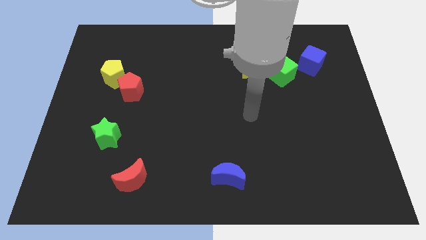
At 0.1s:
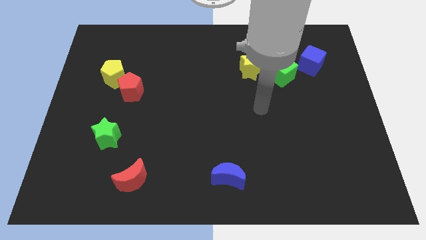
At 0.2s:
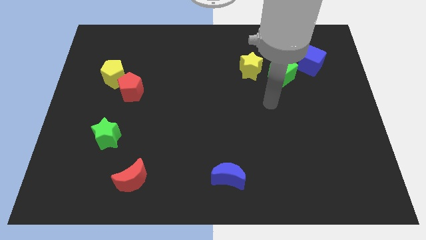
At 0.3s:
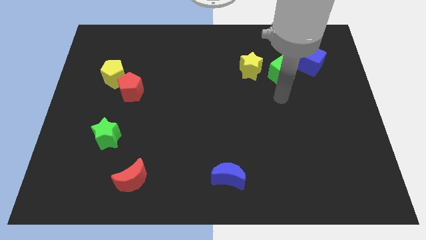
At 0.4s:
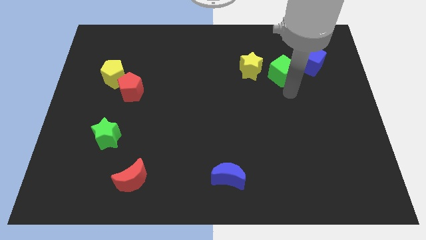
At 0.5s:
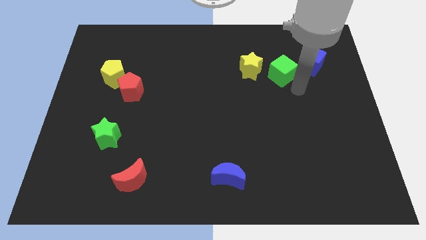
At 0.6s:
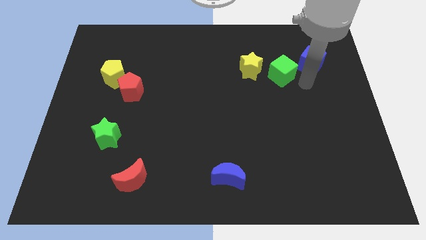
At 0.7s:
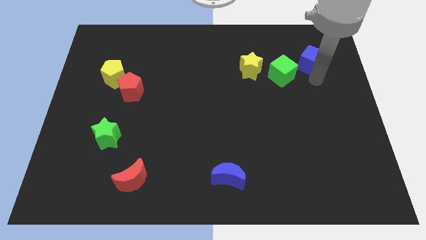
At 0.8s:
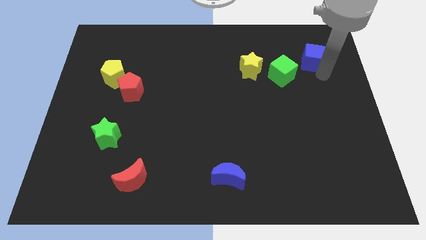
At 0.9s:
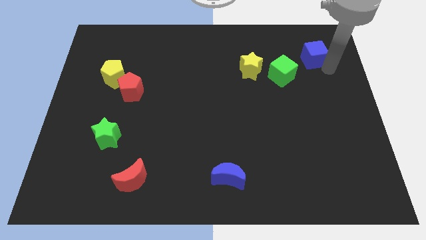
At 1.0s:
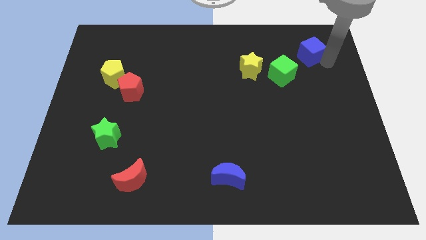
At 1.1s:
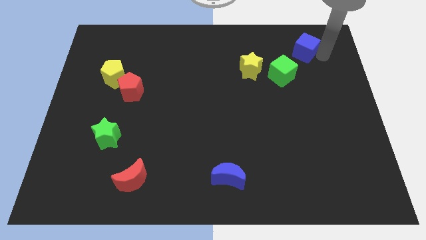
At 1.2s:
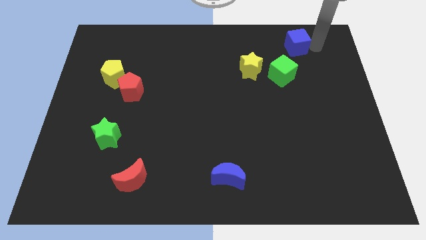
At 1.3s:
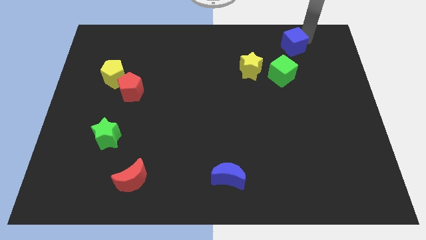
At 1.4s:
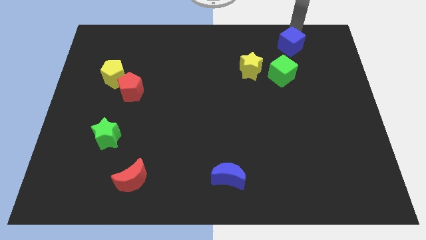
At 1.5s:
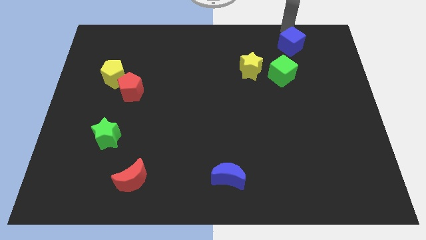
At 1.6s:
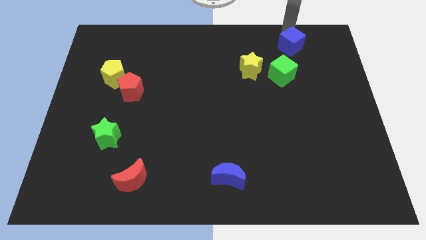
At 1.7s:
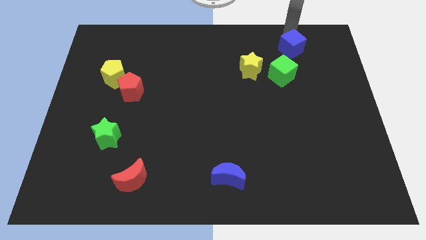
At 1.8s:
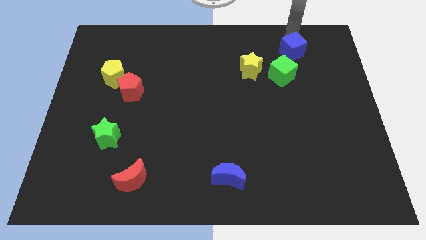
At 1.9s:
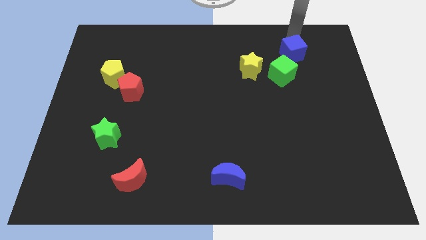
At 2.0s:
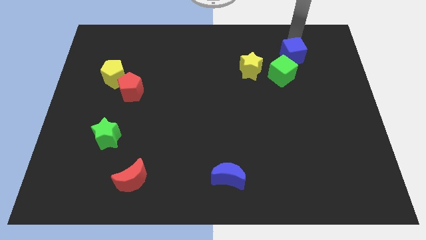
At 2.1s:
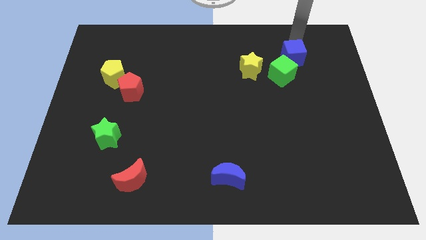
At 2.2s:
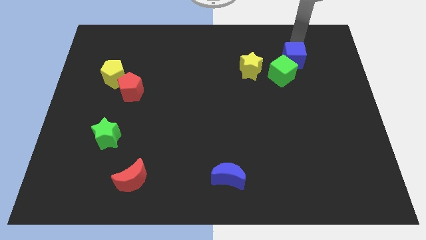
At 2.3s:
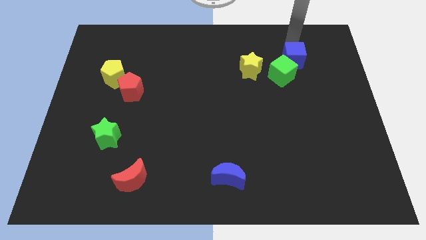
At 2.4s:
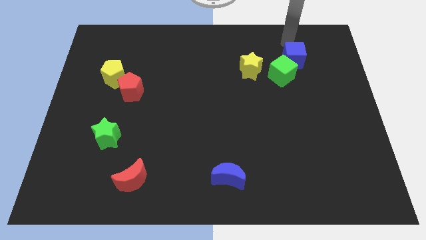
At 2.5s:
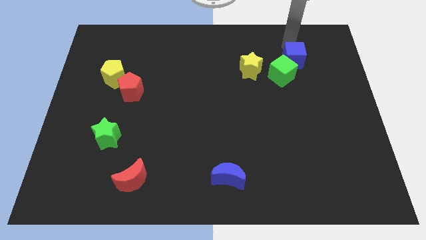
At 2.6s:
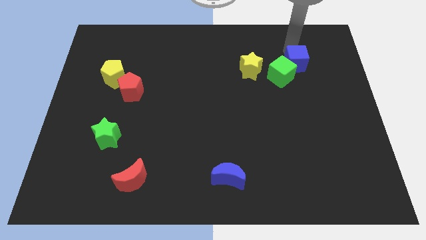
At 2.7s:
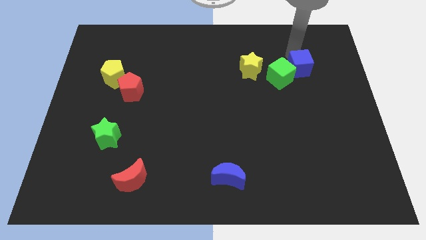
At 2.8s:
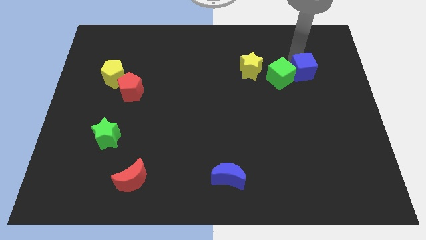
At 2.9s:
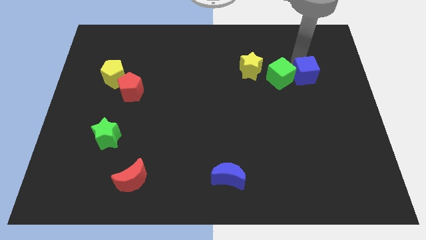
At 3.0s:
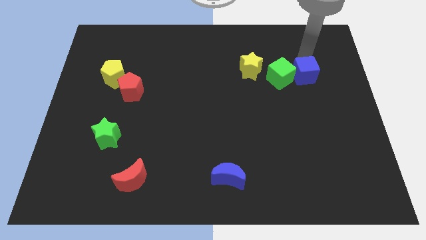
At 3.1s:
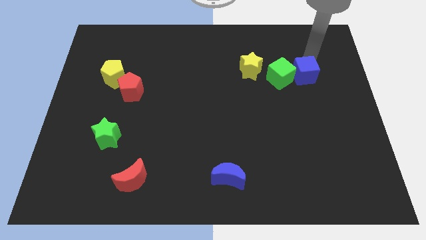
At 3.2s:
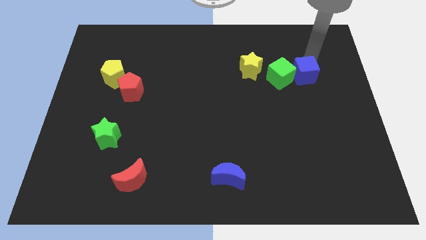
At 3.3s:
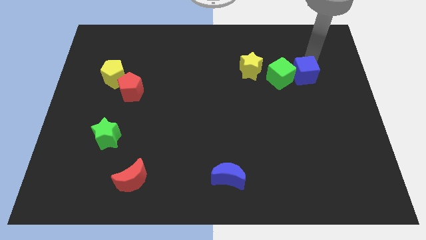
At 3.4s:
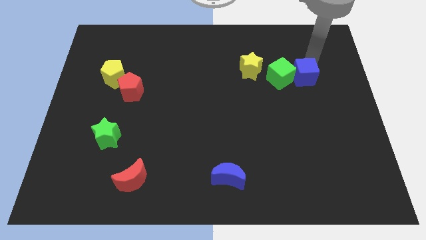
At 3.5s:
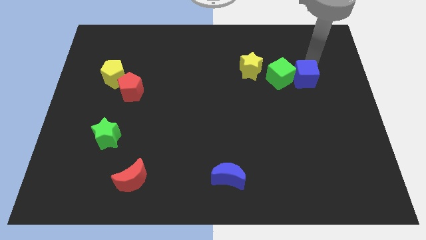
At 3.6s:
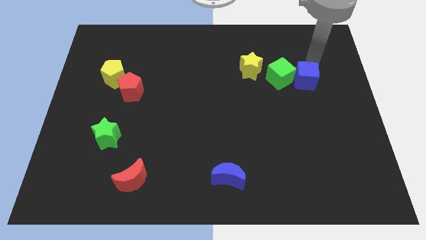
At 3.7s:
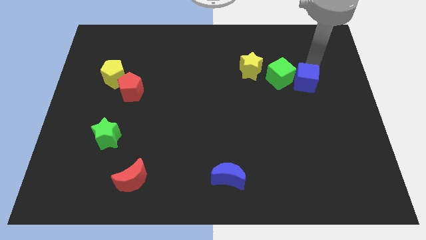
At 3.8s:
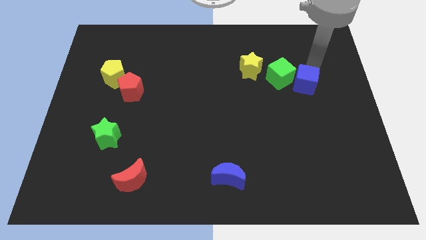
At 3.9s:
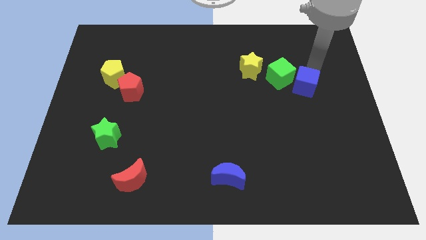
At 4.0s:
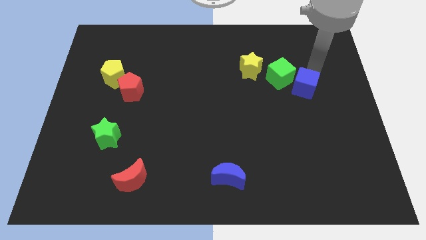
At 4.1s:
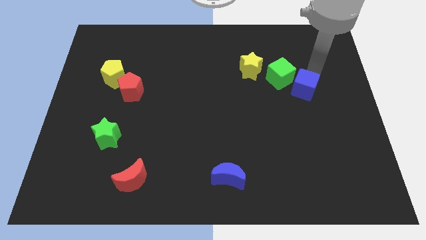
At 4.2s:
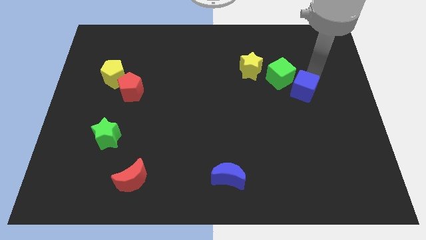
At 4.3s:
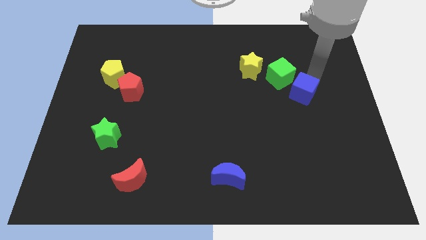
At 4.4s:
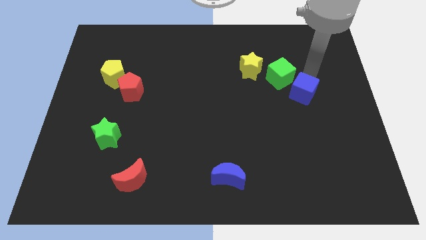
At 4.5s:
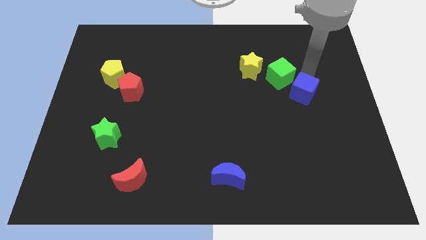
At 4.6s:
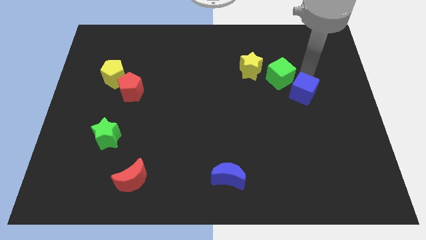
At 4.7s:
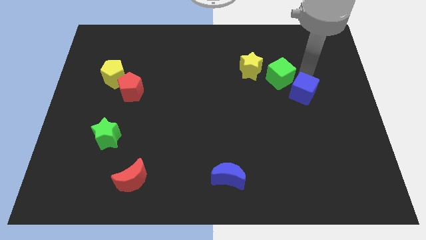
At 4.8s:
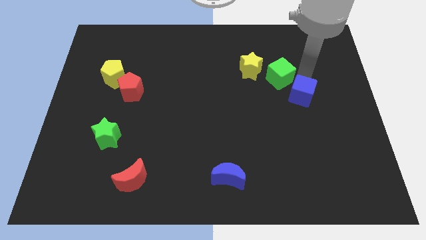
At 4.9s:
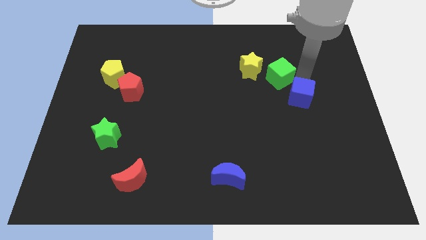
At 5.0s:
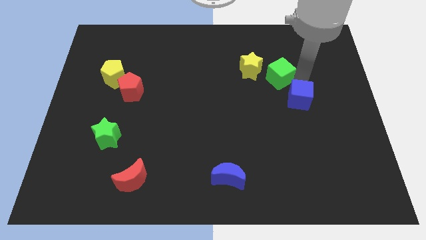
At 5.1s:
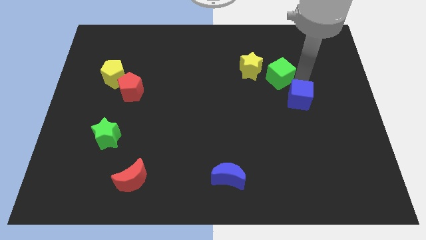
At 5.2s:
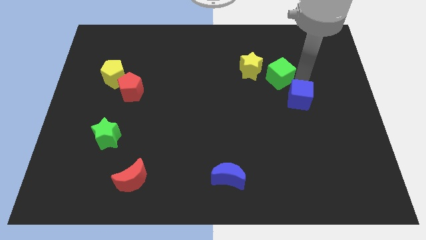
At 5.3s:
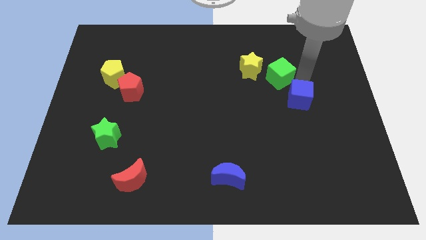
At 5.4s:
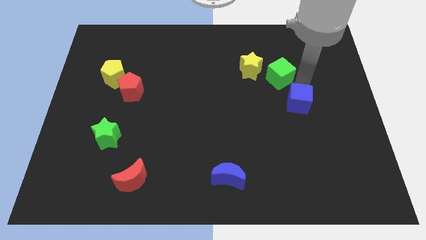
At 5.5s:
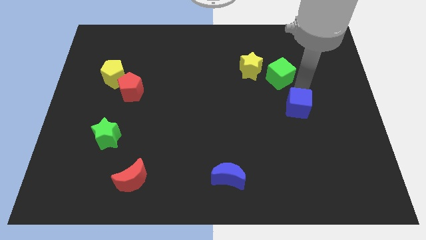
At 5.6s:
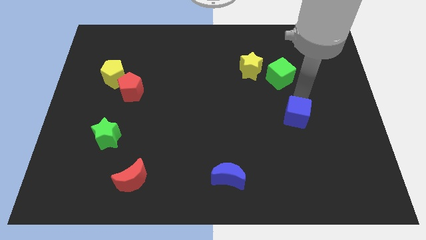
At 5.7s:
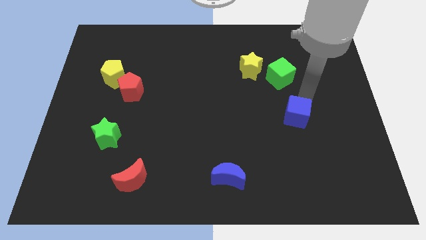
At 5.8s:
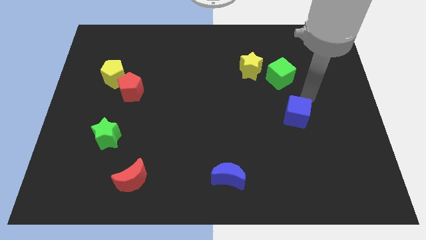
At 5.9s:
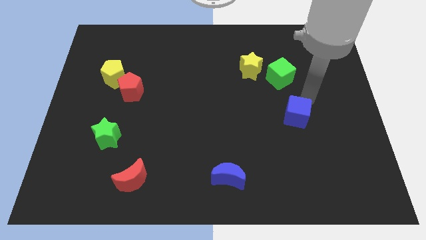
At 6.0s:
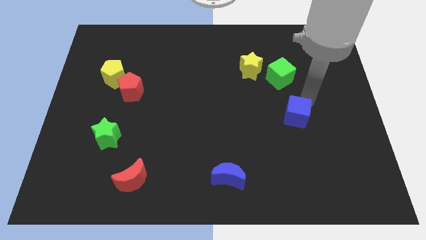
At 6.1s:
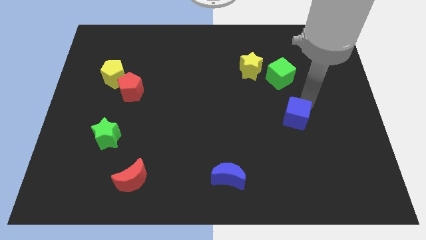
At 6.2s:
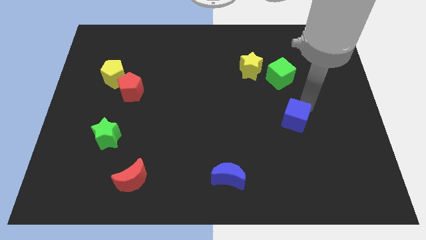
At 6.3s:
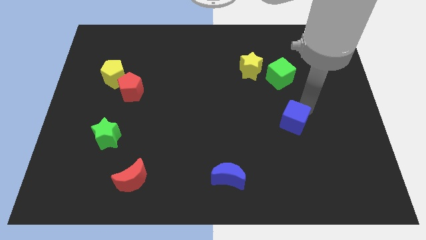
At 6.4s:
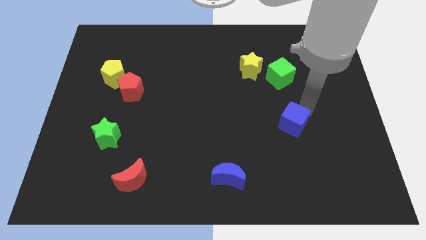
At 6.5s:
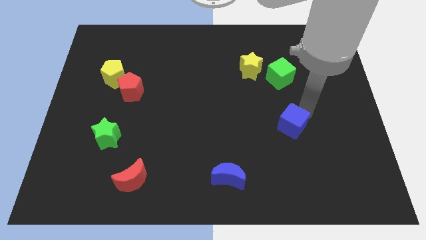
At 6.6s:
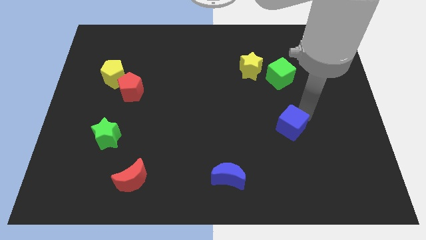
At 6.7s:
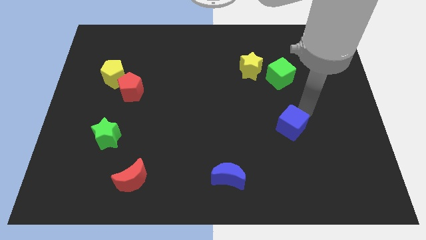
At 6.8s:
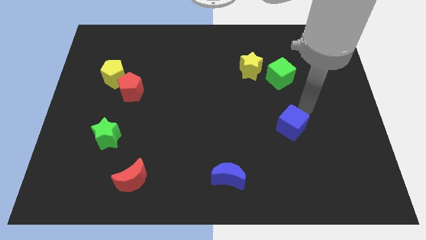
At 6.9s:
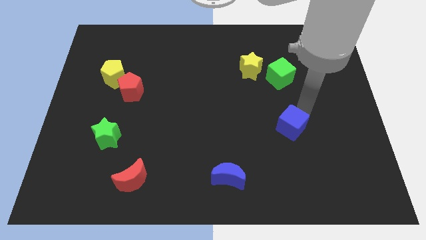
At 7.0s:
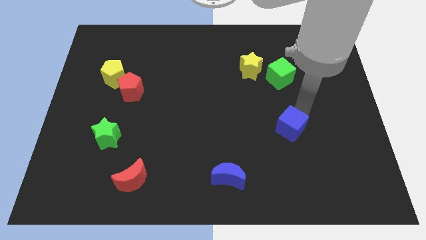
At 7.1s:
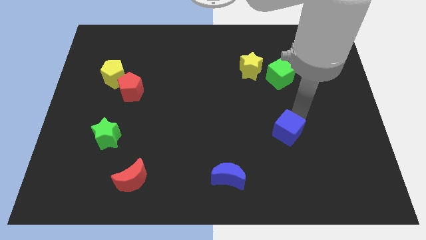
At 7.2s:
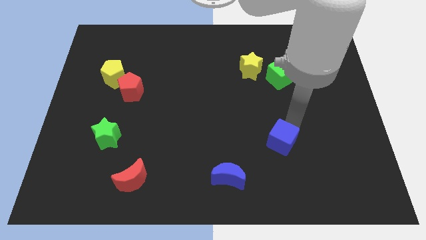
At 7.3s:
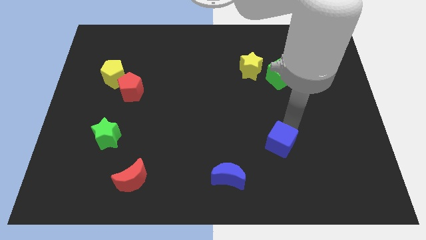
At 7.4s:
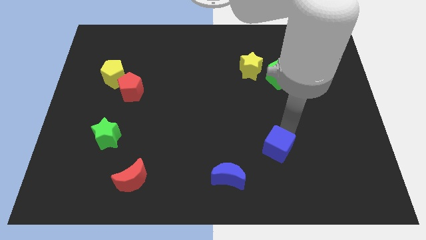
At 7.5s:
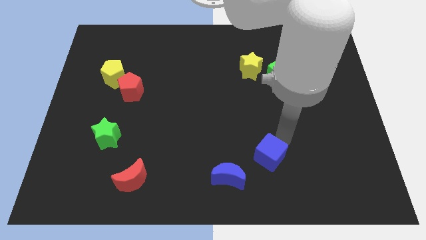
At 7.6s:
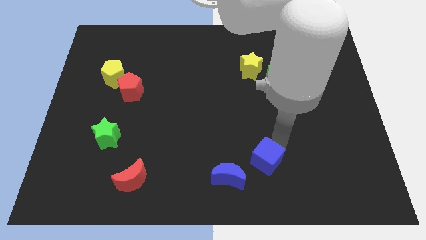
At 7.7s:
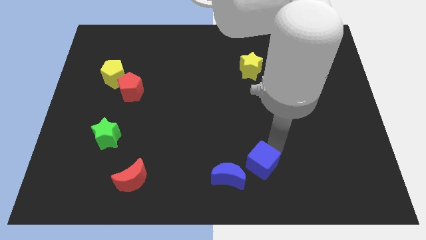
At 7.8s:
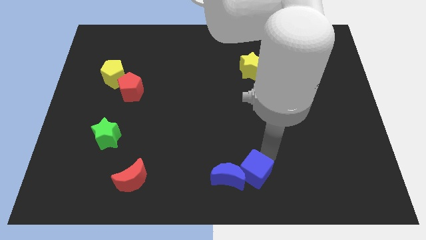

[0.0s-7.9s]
slide the blue cube to the bottom
